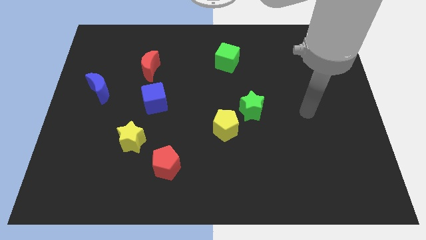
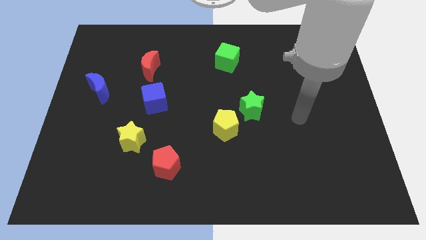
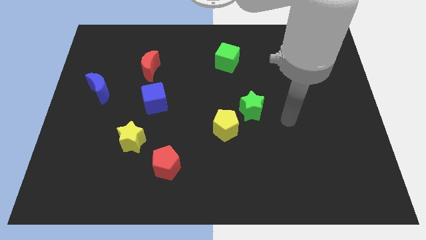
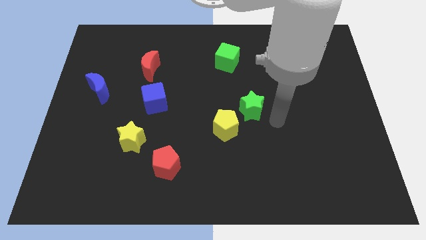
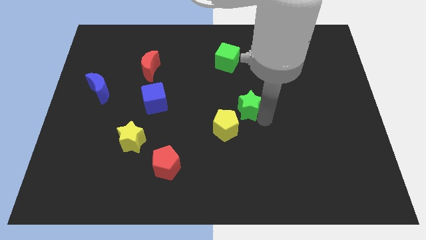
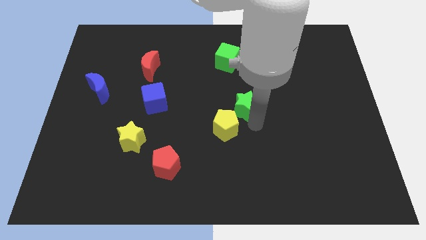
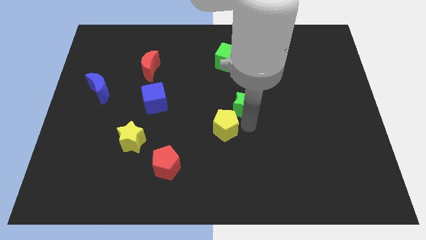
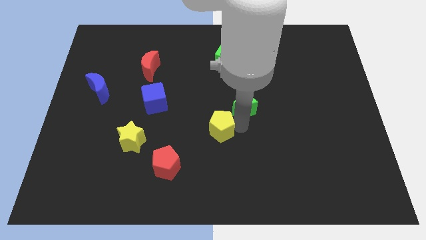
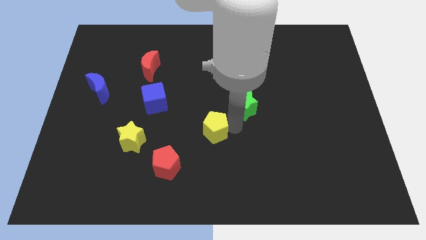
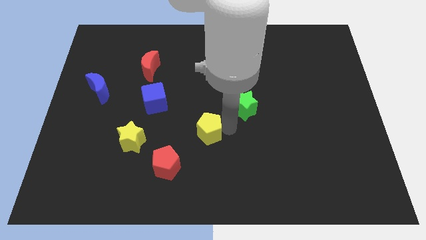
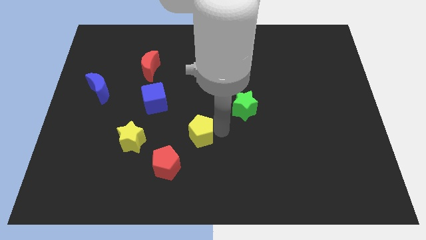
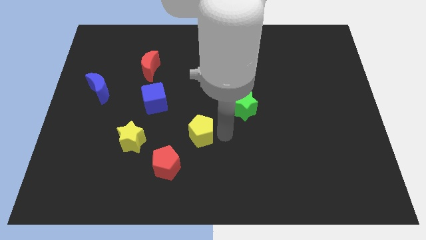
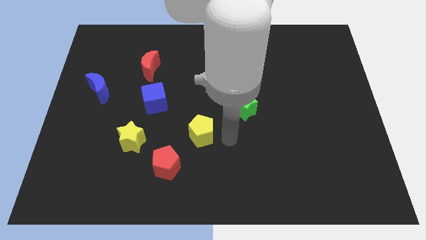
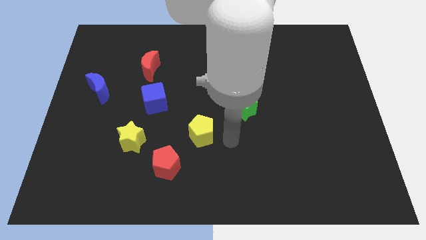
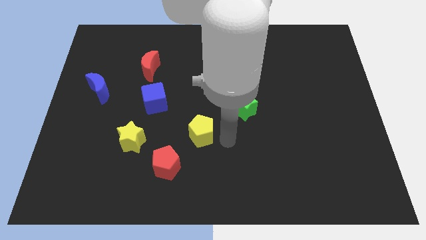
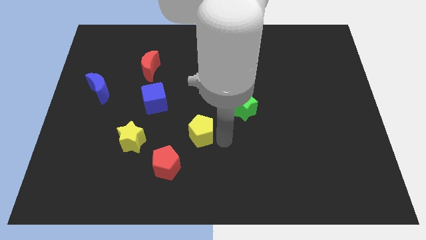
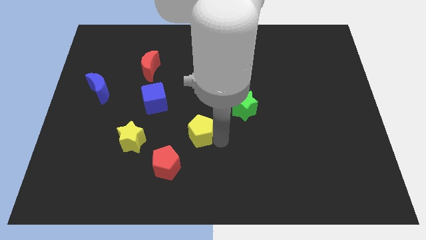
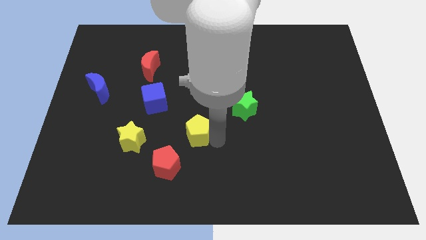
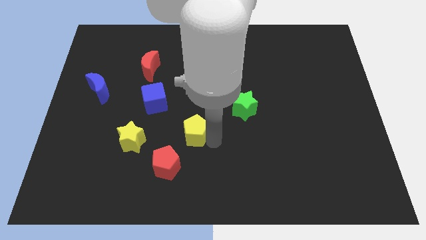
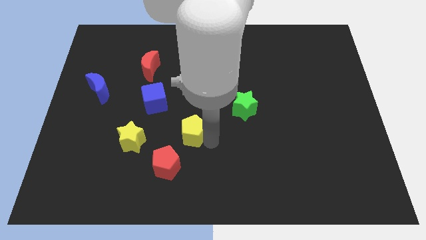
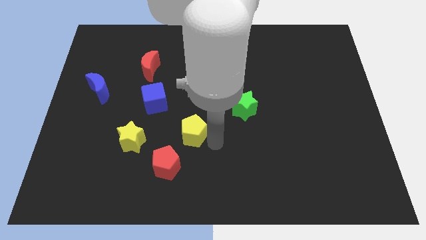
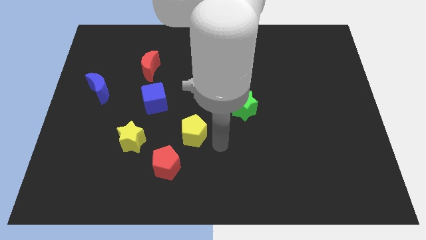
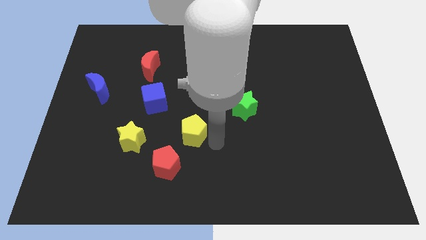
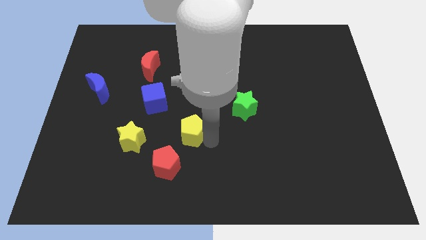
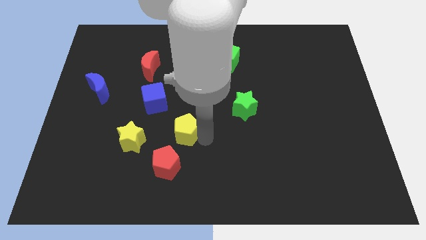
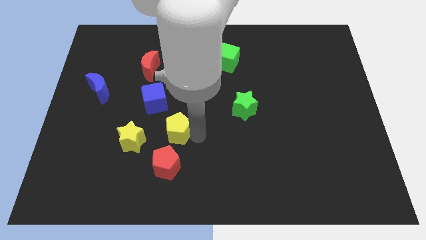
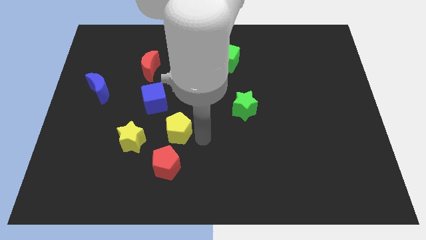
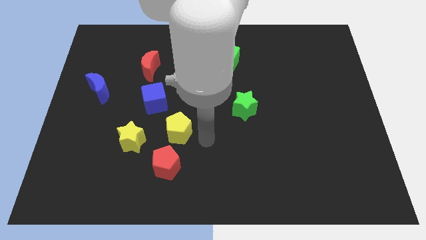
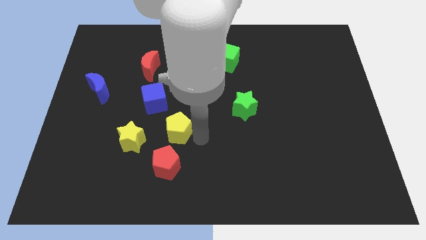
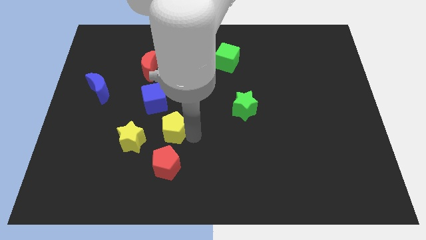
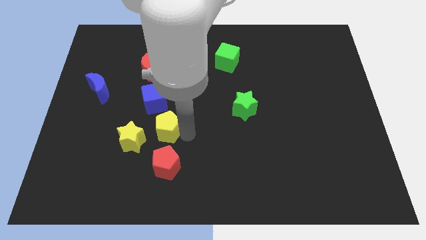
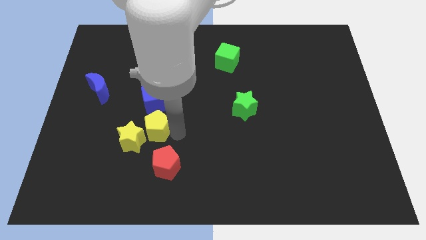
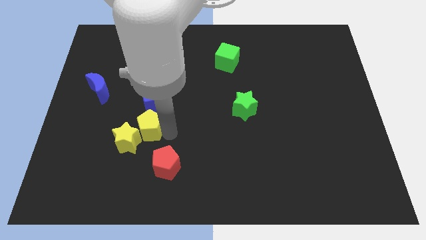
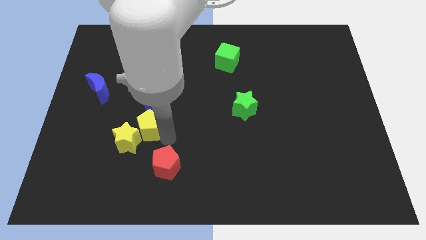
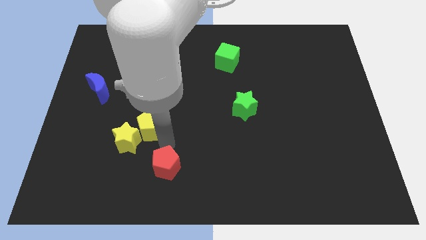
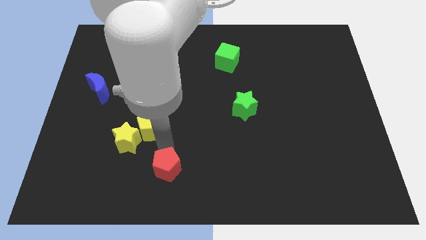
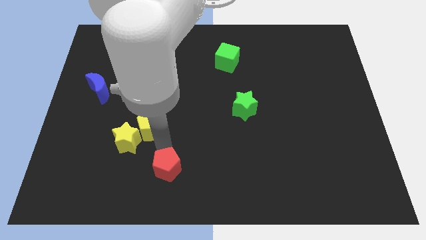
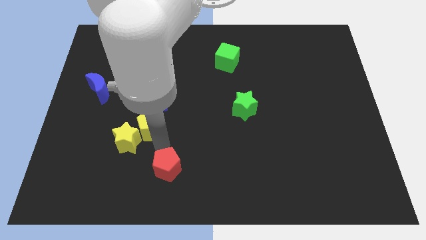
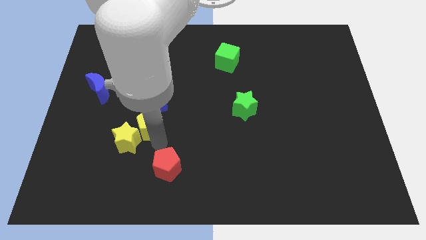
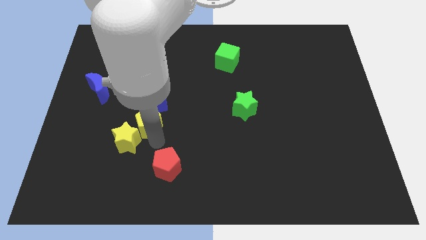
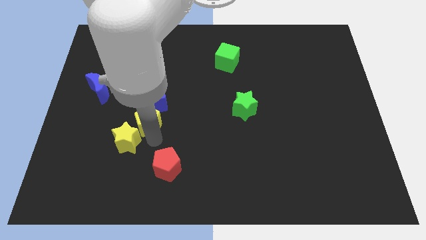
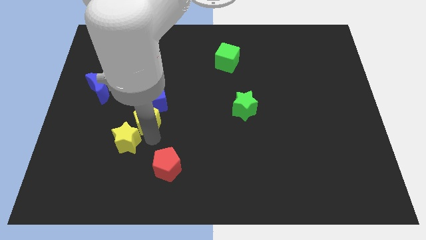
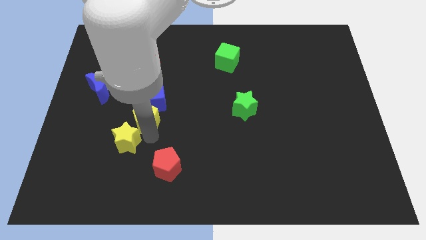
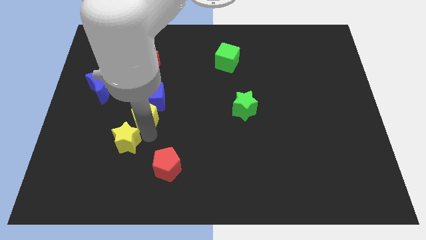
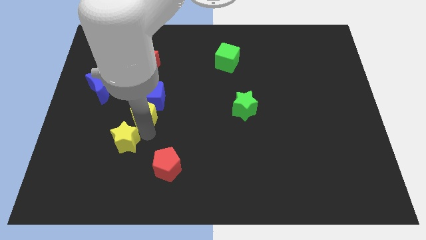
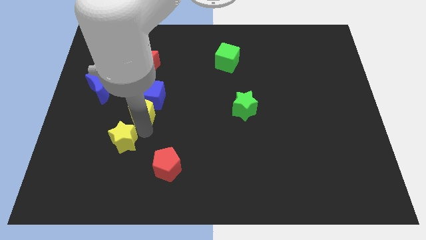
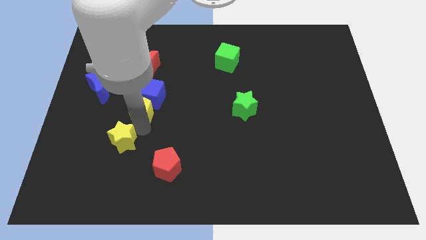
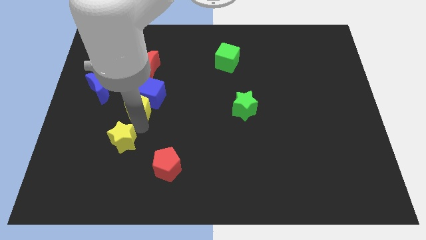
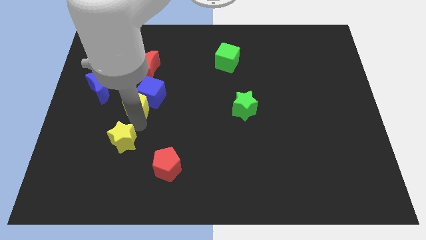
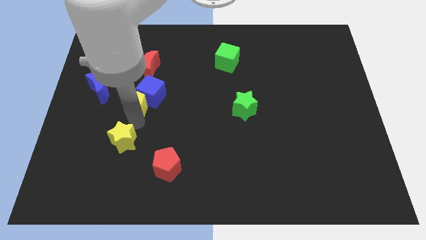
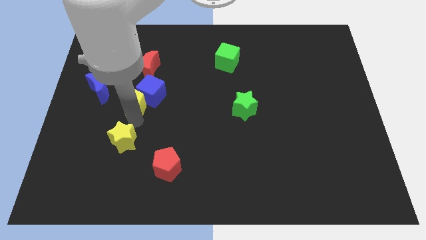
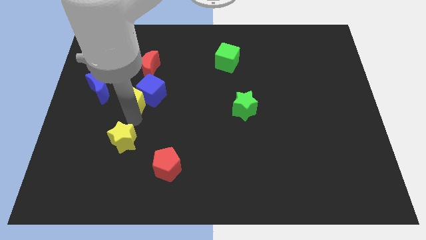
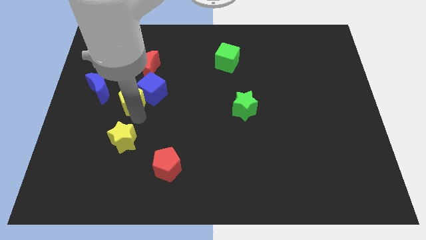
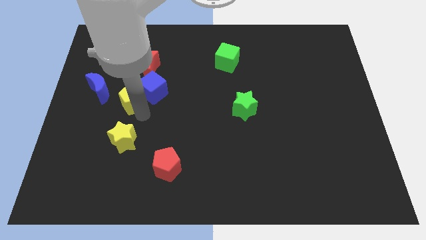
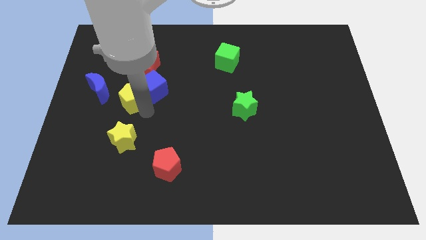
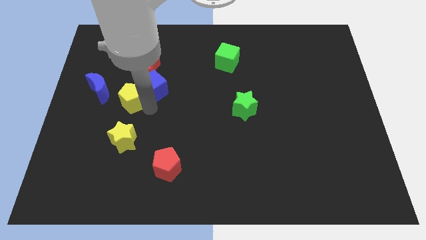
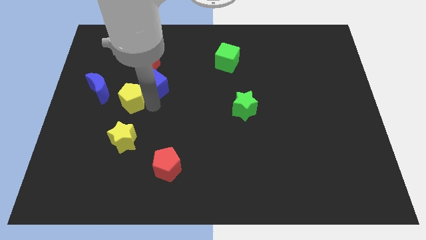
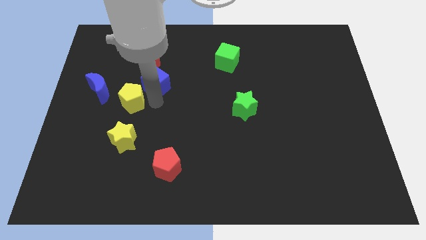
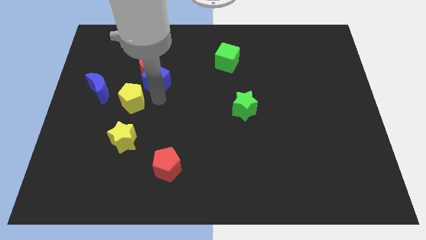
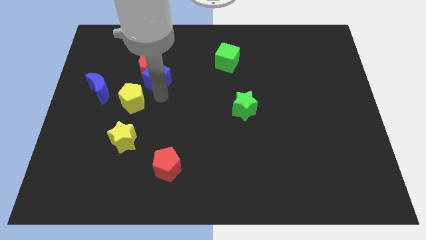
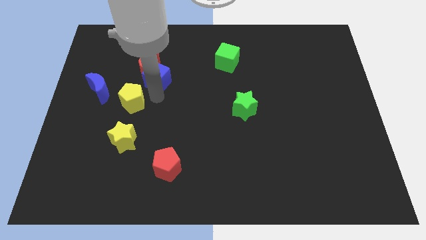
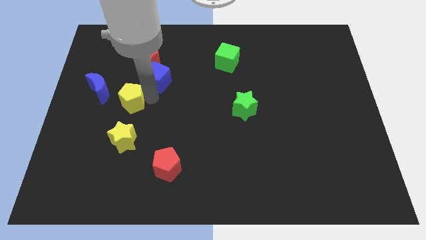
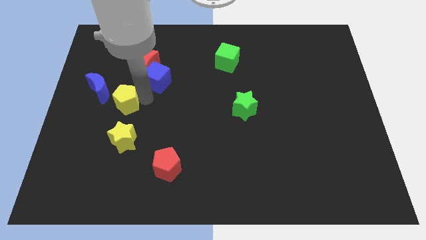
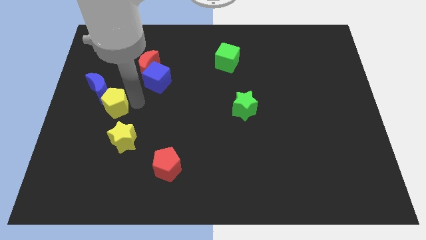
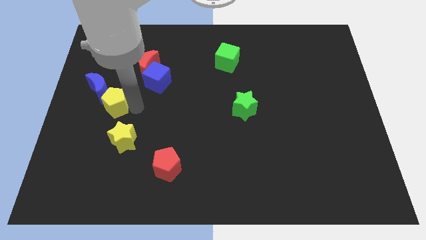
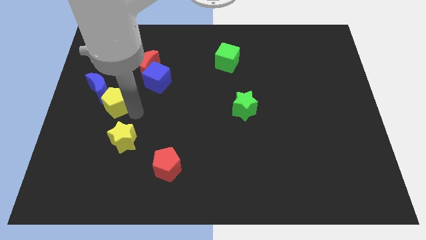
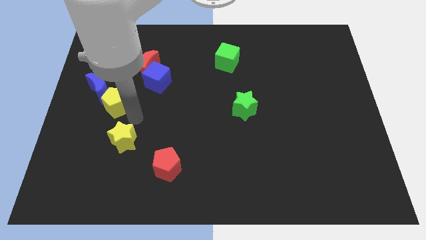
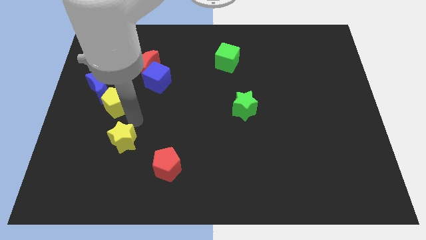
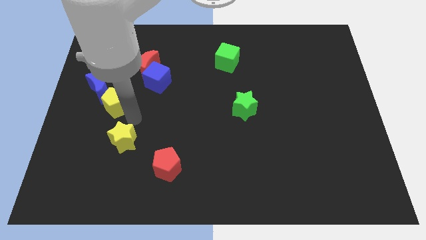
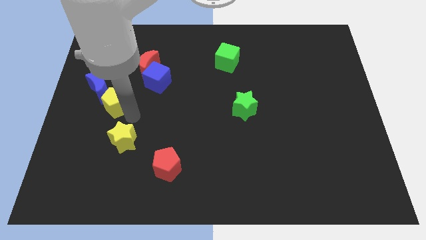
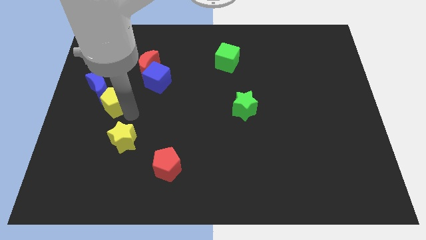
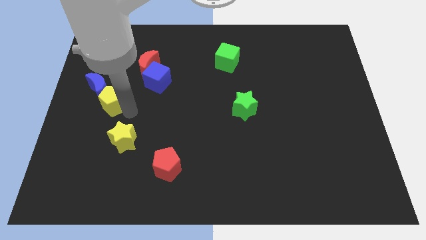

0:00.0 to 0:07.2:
slide the yellow pentagon close to the blue moon

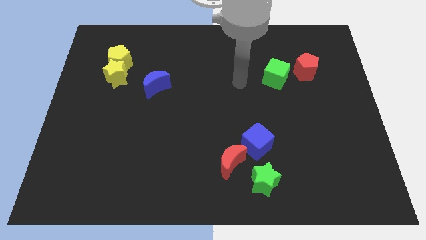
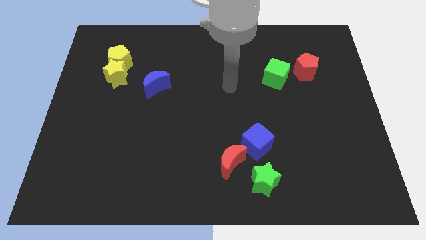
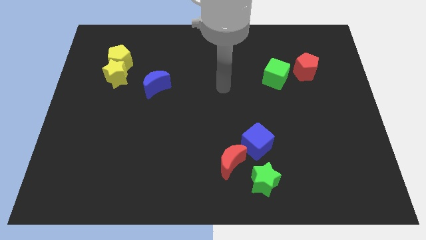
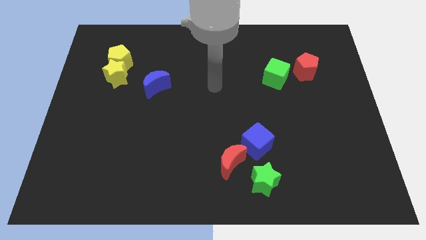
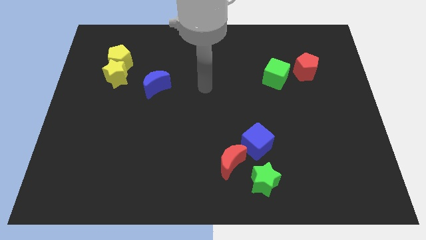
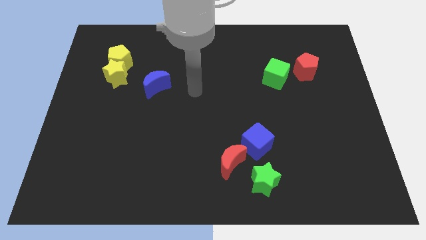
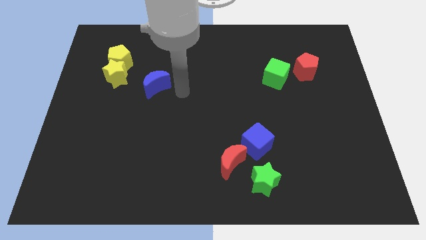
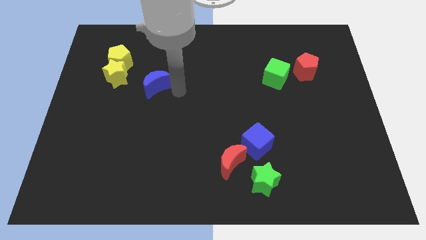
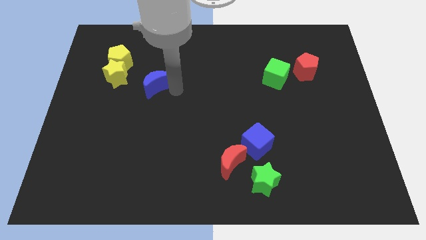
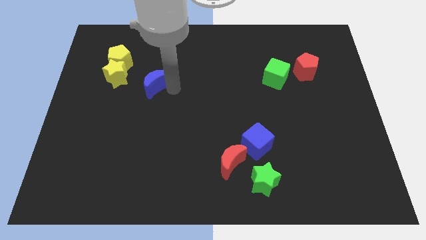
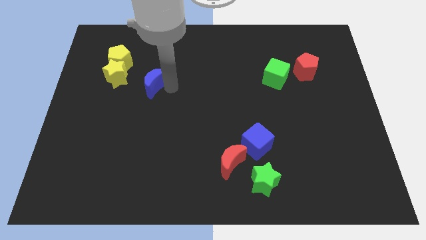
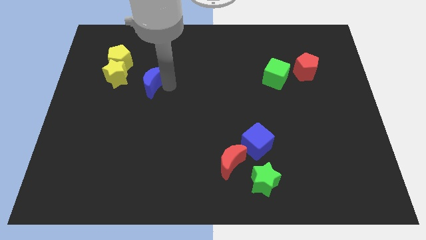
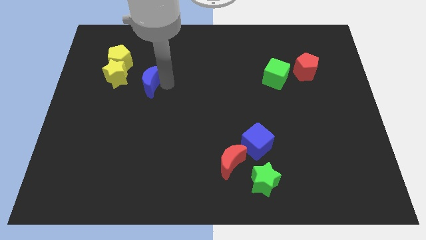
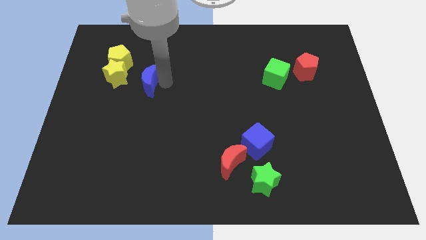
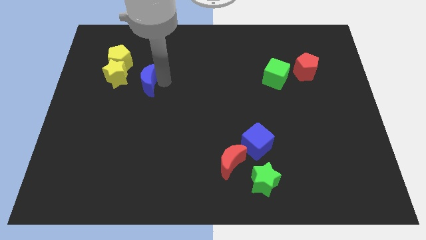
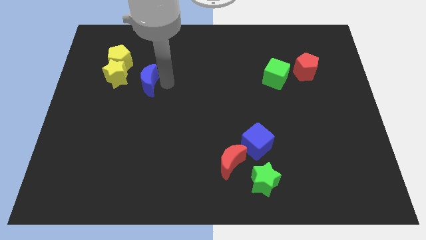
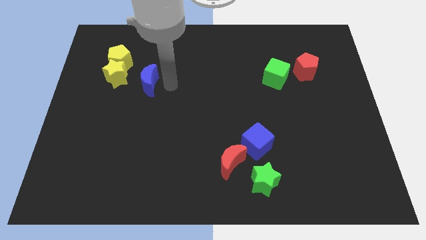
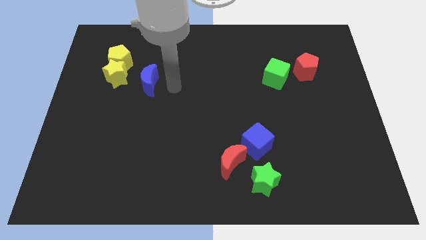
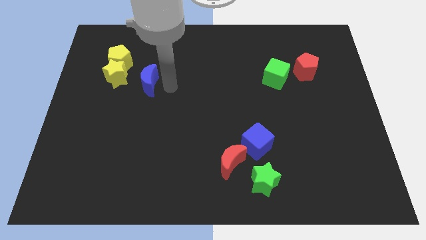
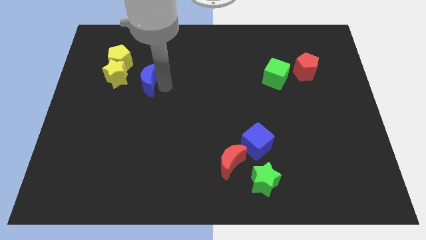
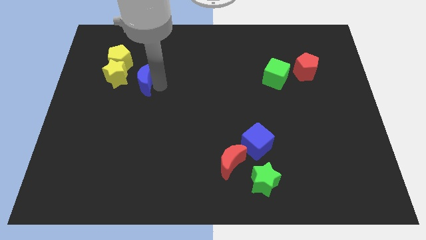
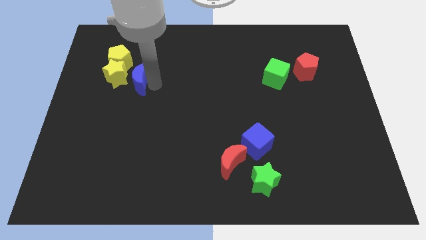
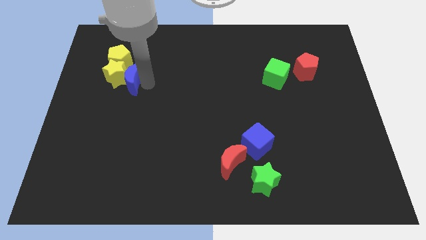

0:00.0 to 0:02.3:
slide the blue moon towards the yellow star
